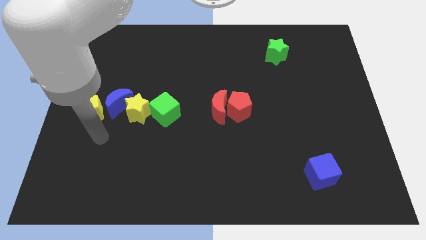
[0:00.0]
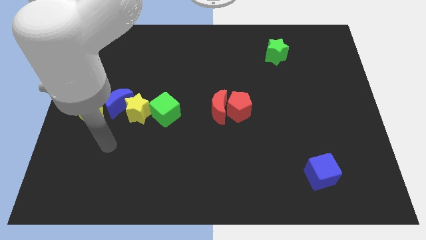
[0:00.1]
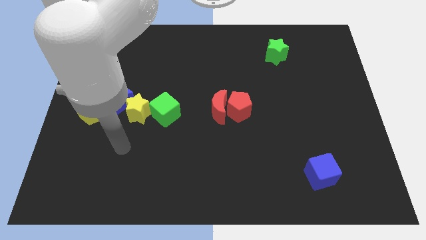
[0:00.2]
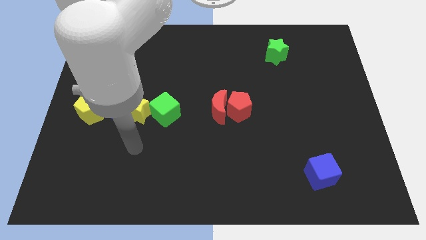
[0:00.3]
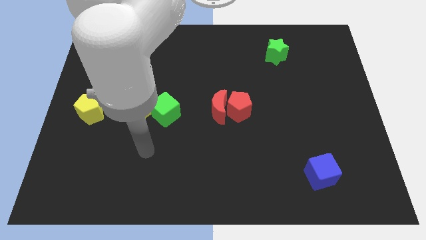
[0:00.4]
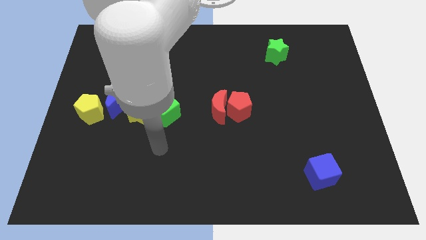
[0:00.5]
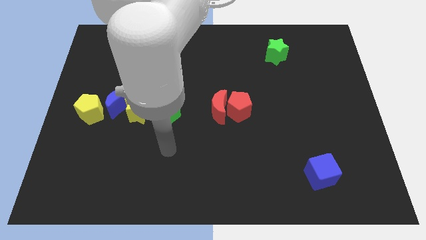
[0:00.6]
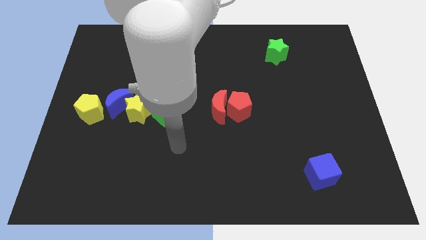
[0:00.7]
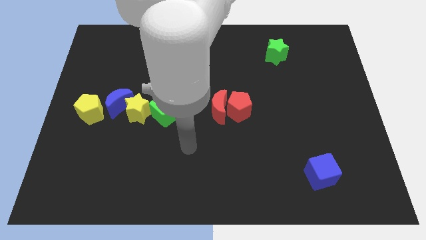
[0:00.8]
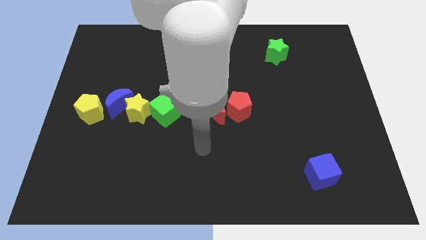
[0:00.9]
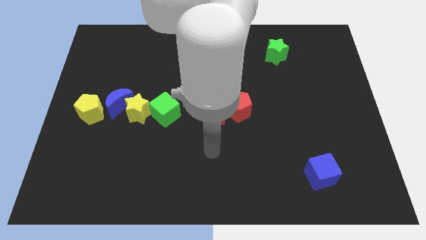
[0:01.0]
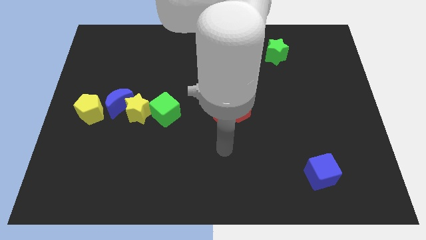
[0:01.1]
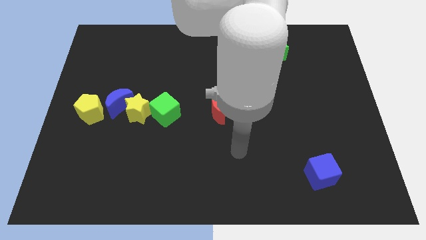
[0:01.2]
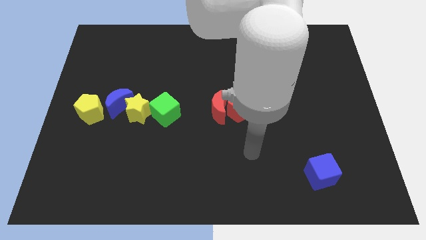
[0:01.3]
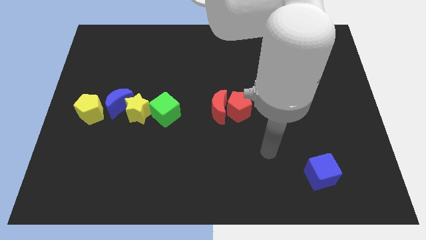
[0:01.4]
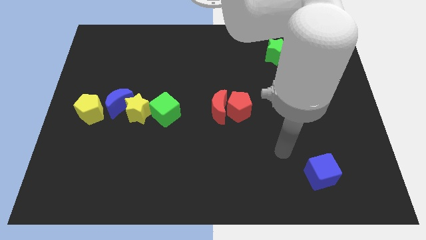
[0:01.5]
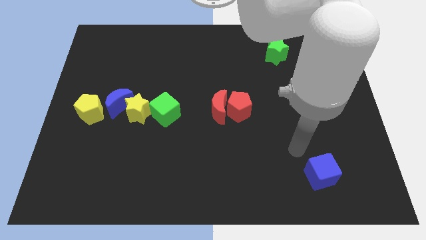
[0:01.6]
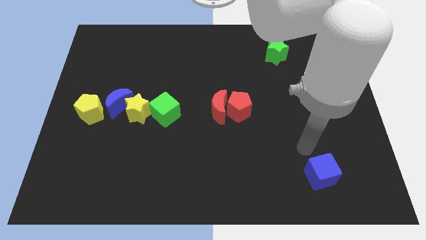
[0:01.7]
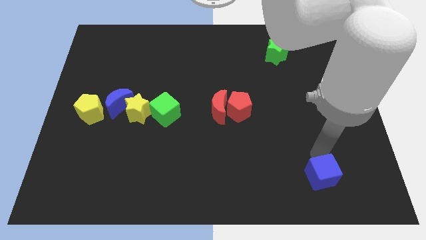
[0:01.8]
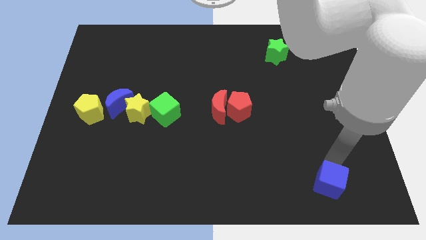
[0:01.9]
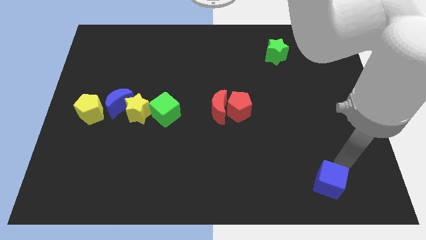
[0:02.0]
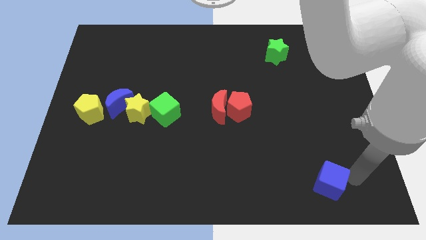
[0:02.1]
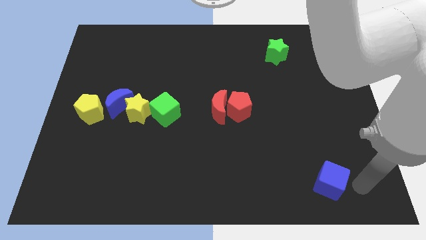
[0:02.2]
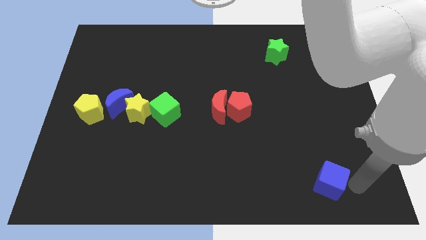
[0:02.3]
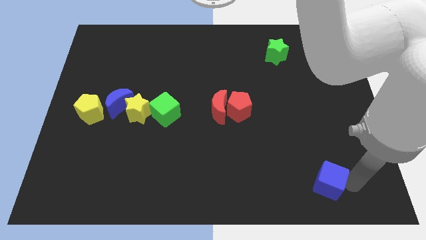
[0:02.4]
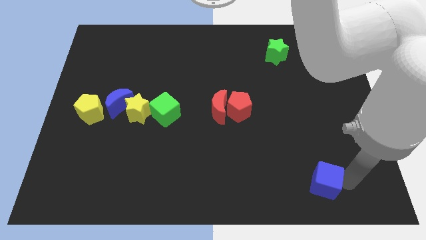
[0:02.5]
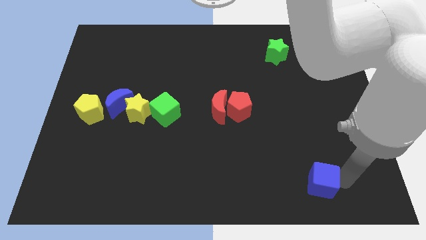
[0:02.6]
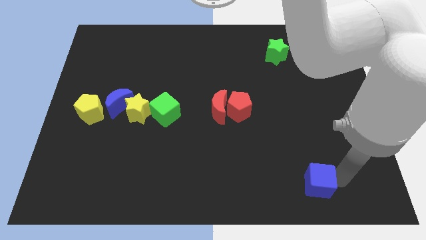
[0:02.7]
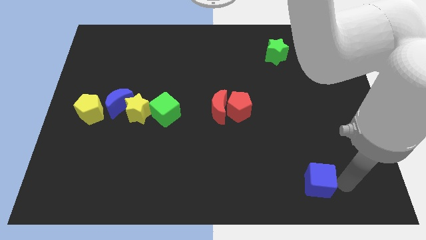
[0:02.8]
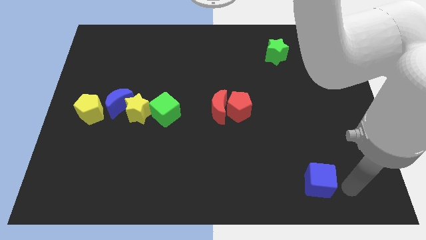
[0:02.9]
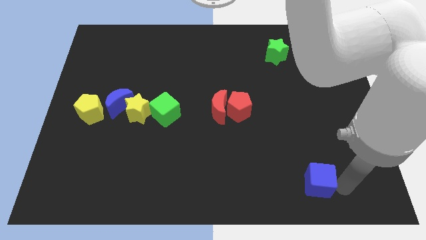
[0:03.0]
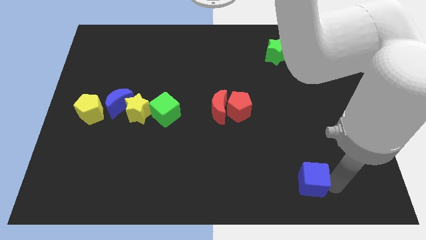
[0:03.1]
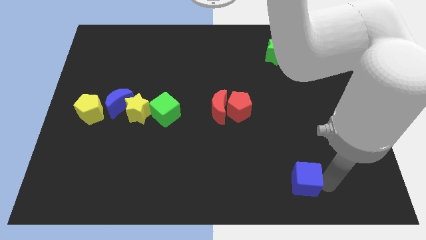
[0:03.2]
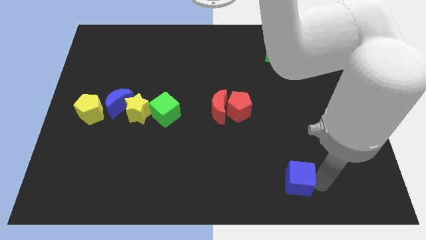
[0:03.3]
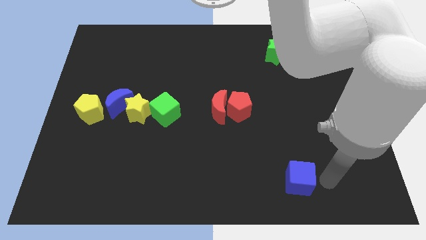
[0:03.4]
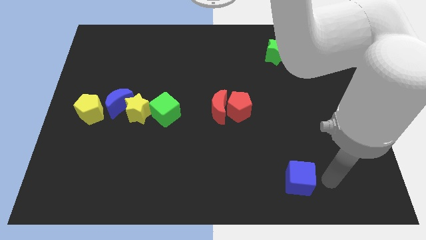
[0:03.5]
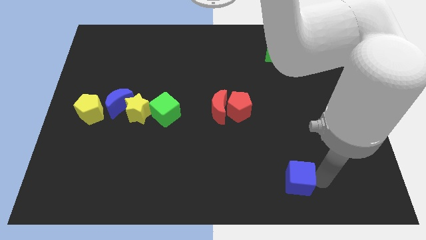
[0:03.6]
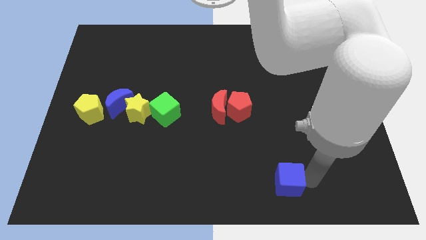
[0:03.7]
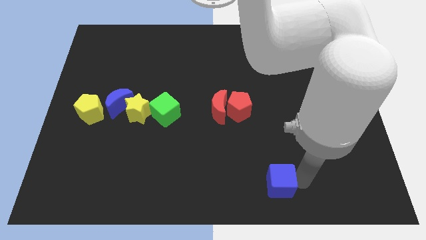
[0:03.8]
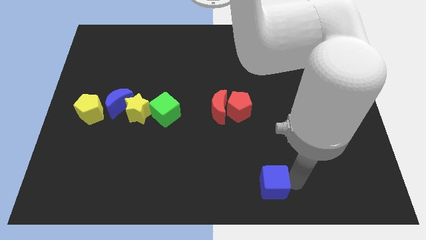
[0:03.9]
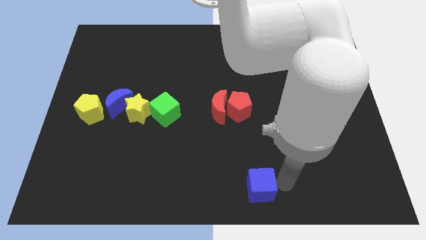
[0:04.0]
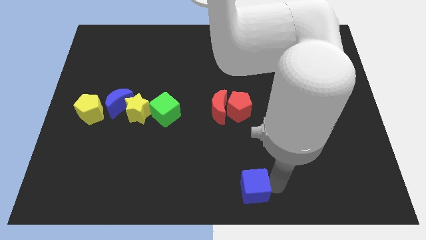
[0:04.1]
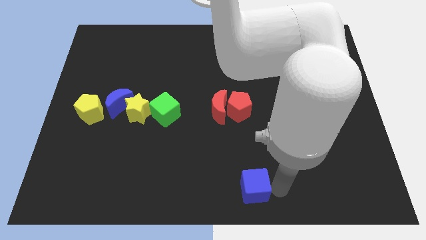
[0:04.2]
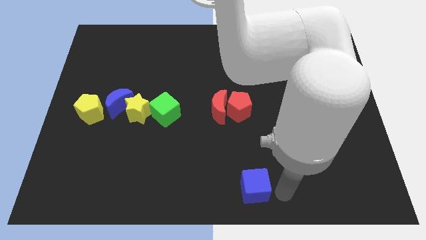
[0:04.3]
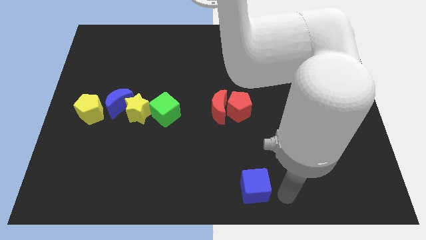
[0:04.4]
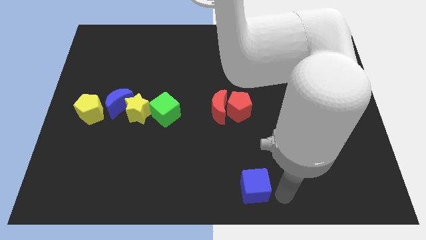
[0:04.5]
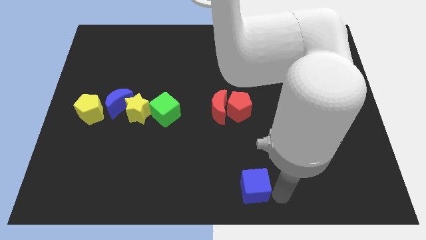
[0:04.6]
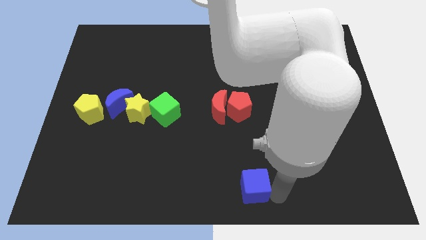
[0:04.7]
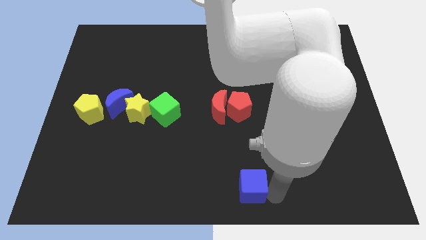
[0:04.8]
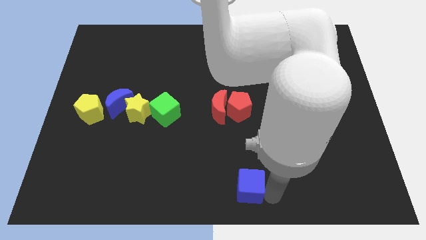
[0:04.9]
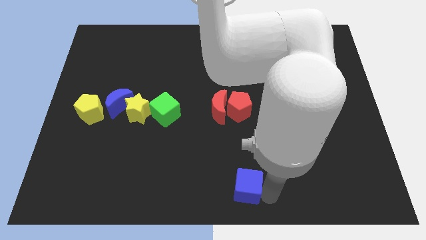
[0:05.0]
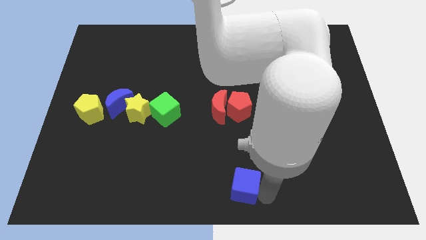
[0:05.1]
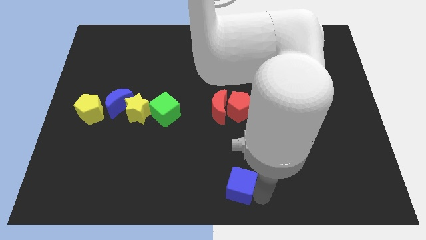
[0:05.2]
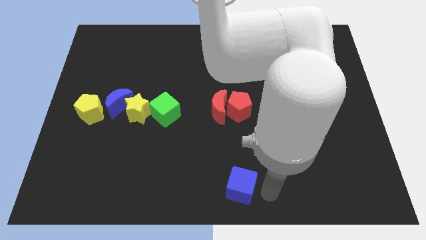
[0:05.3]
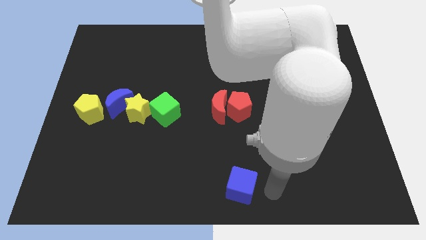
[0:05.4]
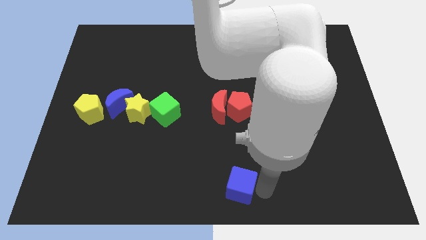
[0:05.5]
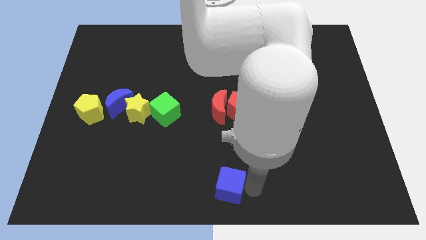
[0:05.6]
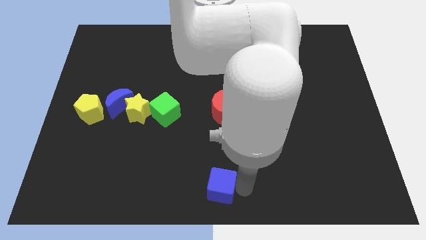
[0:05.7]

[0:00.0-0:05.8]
move the blue cube left

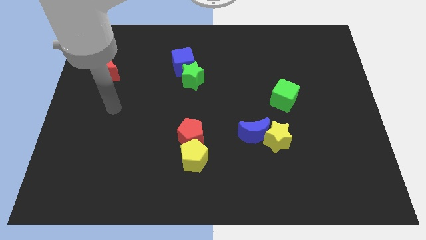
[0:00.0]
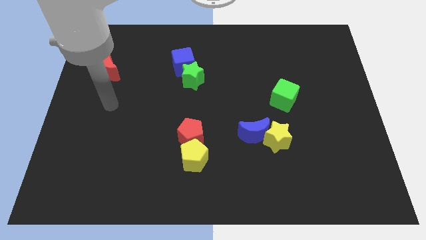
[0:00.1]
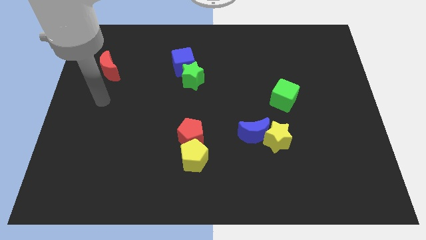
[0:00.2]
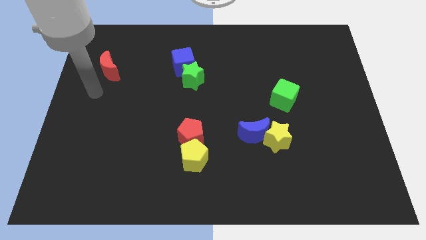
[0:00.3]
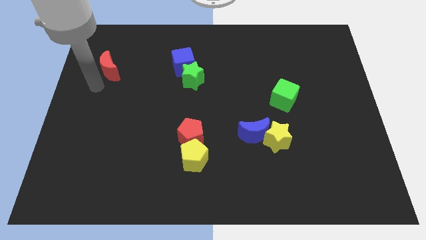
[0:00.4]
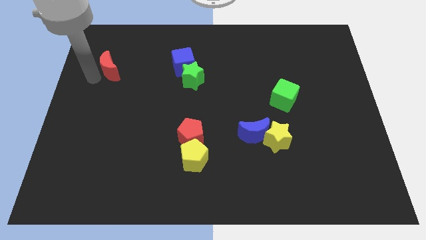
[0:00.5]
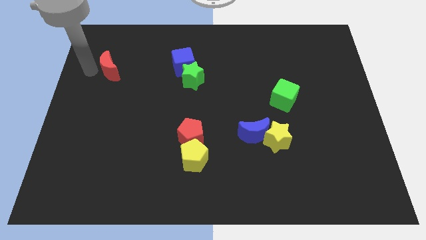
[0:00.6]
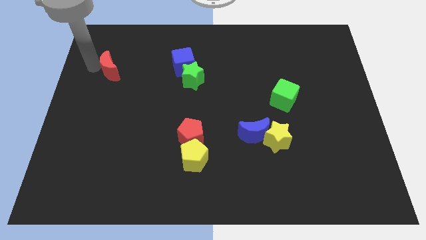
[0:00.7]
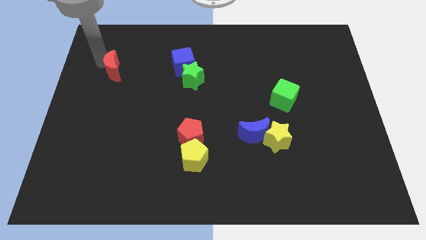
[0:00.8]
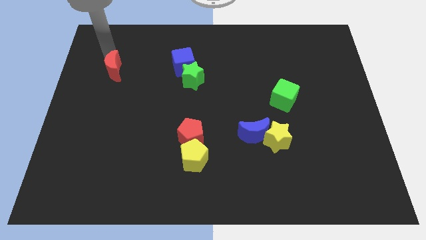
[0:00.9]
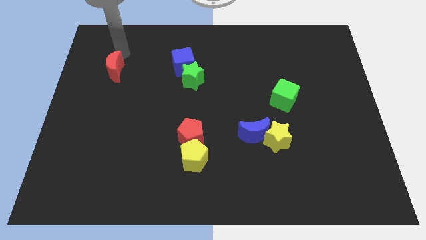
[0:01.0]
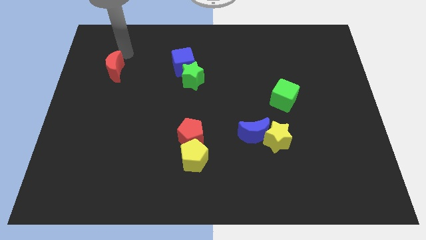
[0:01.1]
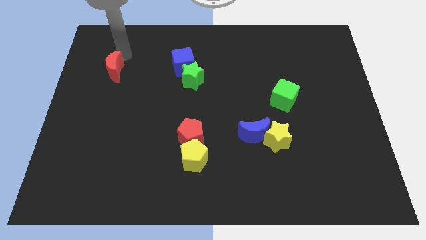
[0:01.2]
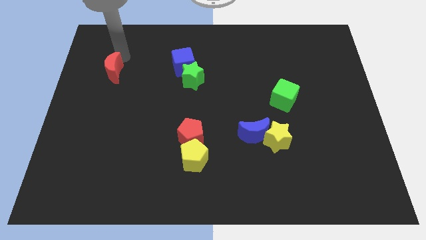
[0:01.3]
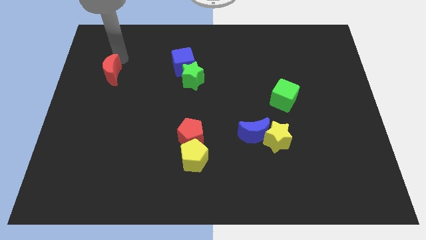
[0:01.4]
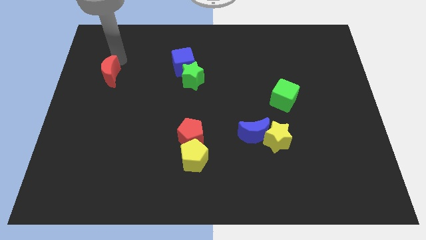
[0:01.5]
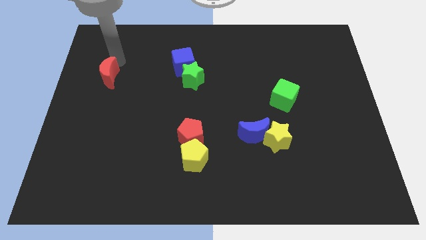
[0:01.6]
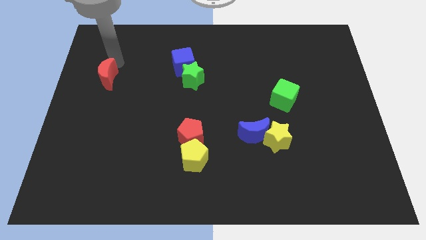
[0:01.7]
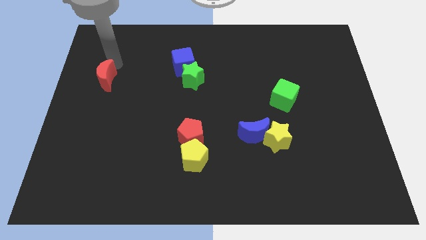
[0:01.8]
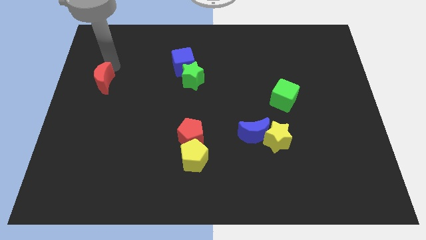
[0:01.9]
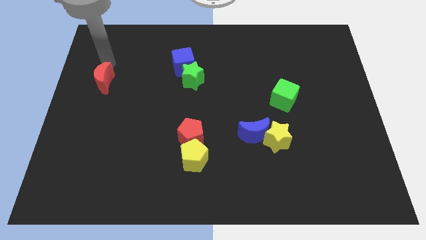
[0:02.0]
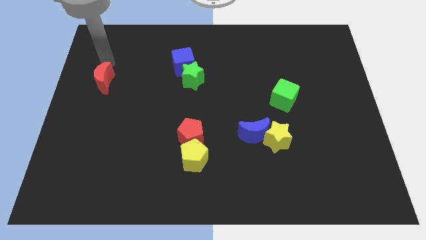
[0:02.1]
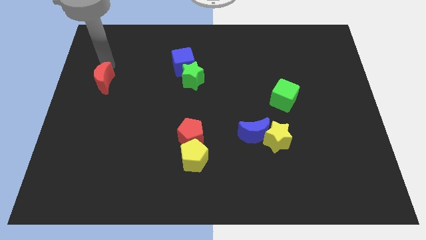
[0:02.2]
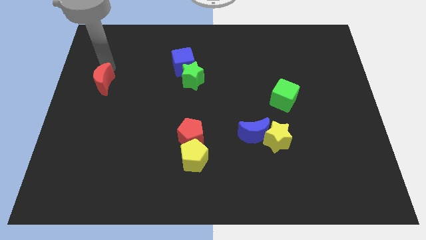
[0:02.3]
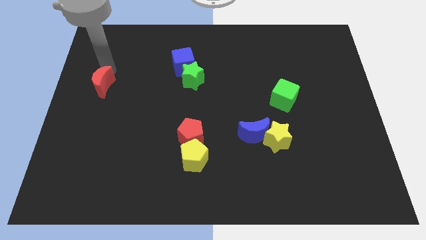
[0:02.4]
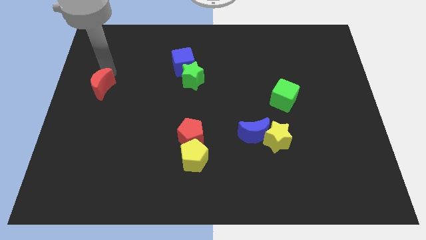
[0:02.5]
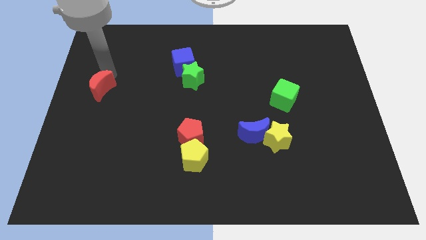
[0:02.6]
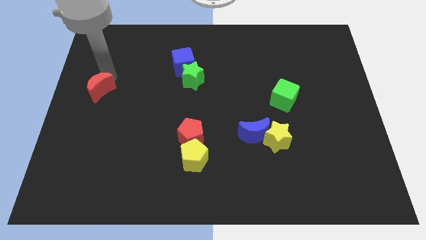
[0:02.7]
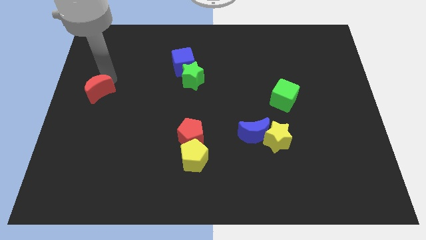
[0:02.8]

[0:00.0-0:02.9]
slide the red moon a bit down
